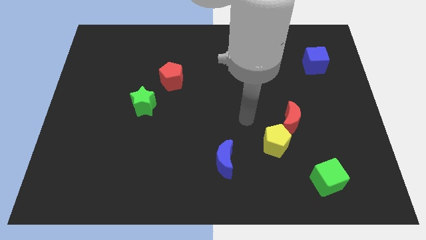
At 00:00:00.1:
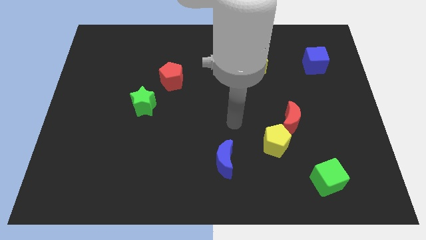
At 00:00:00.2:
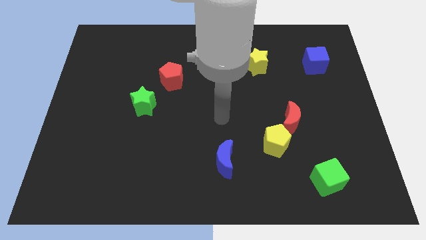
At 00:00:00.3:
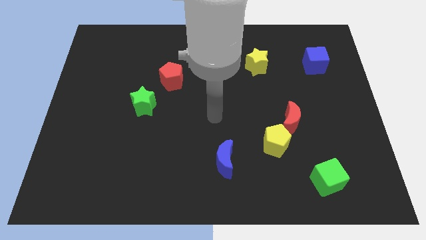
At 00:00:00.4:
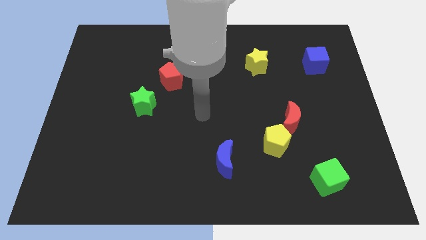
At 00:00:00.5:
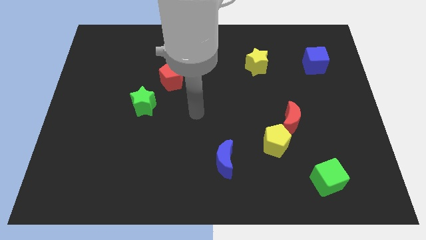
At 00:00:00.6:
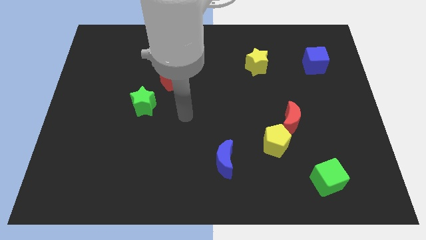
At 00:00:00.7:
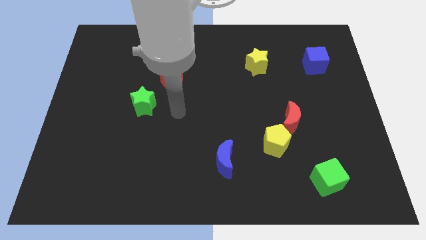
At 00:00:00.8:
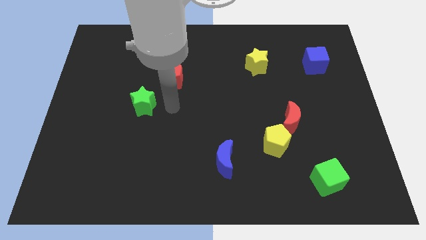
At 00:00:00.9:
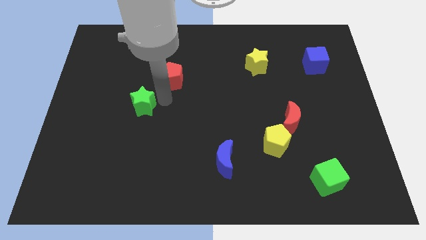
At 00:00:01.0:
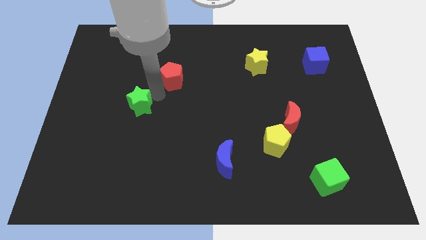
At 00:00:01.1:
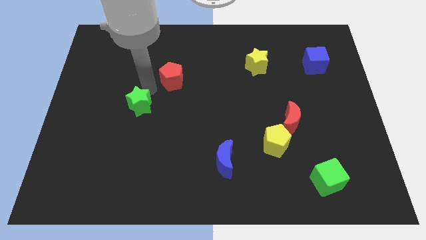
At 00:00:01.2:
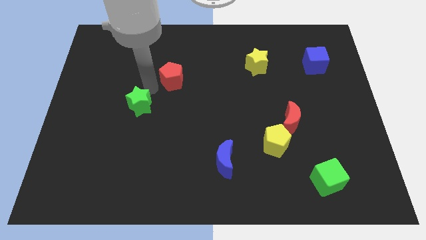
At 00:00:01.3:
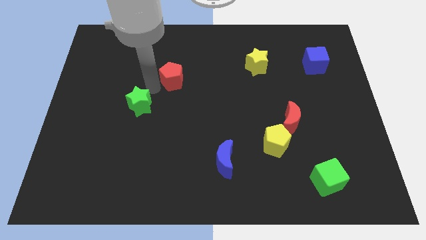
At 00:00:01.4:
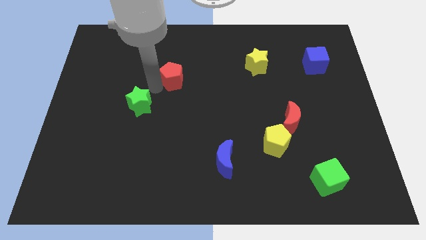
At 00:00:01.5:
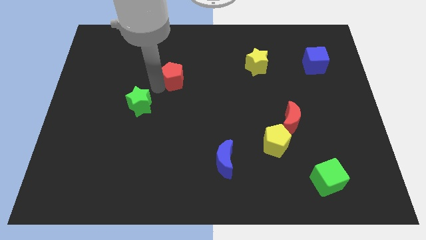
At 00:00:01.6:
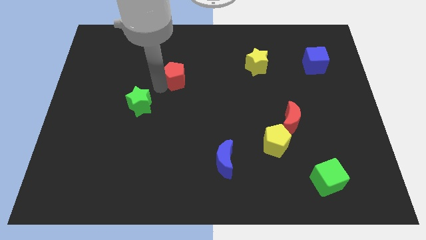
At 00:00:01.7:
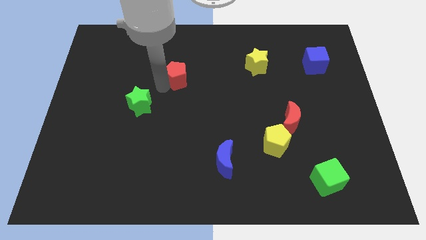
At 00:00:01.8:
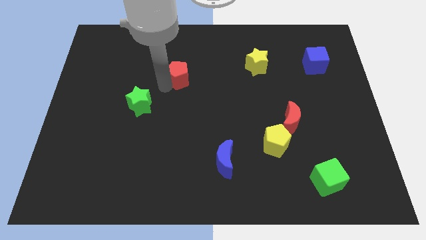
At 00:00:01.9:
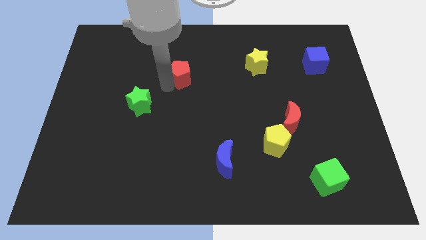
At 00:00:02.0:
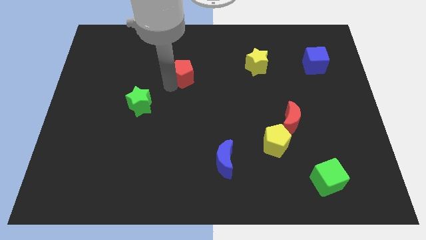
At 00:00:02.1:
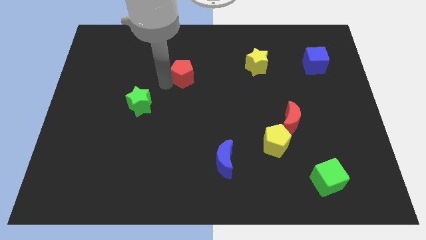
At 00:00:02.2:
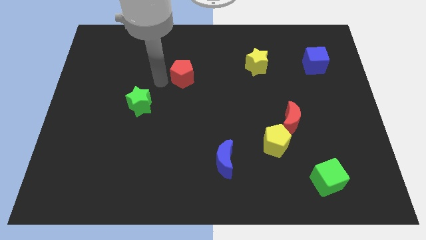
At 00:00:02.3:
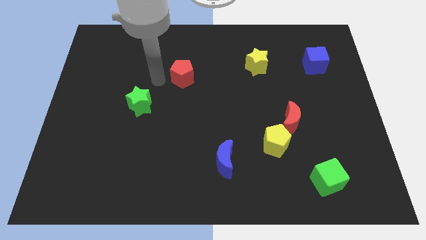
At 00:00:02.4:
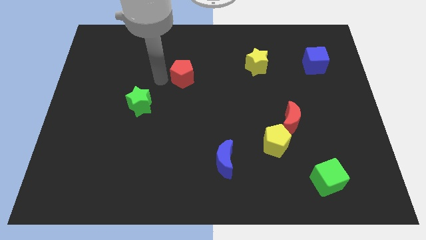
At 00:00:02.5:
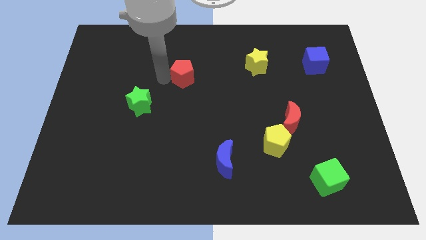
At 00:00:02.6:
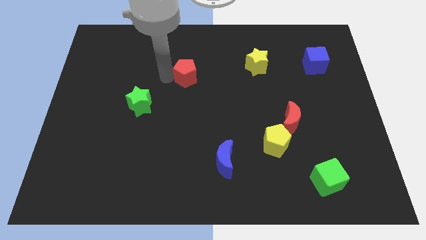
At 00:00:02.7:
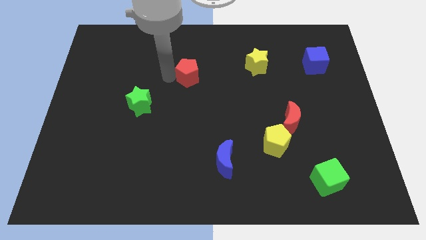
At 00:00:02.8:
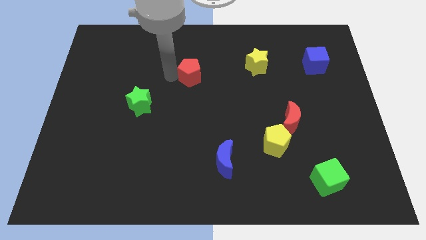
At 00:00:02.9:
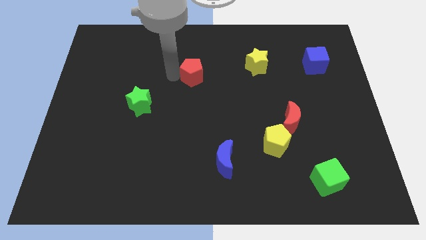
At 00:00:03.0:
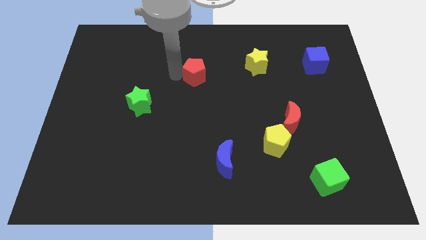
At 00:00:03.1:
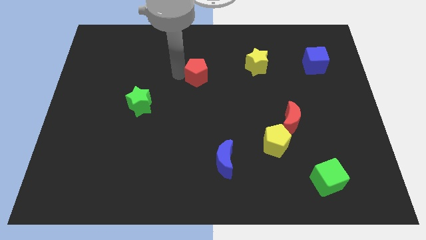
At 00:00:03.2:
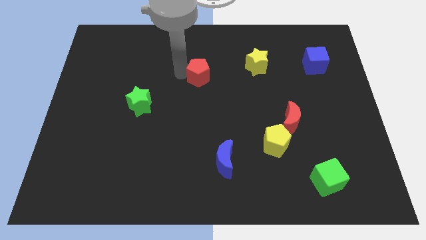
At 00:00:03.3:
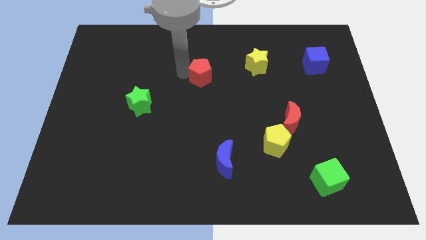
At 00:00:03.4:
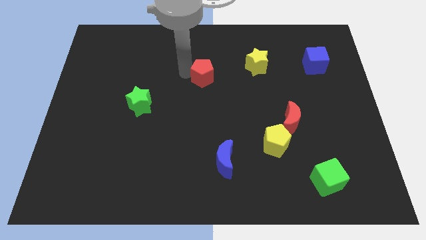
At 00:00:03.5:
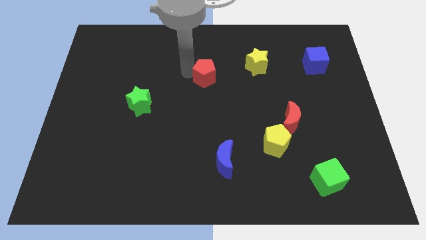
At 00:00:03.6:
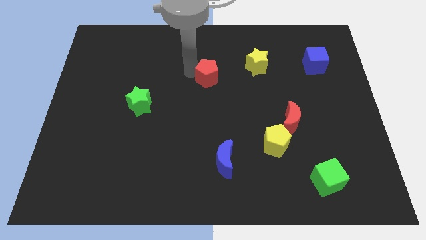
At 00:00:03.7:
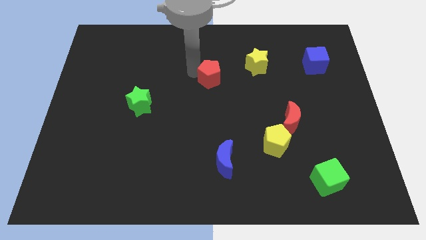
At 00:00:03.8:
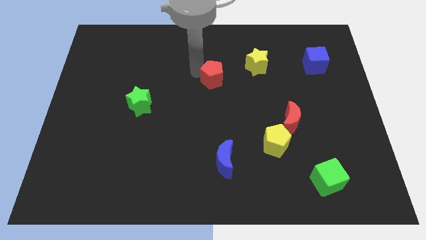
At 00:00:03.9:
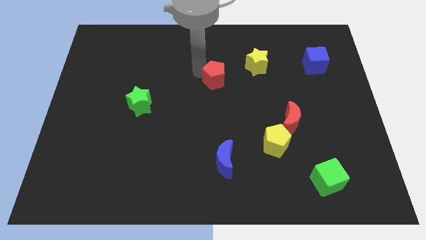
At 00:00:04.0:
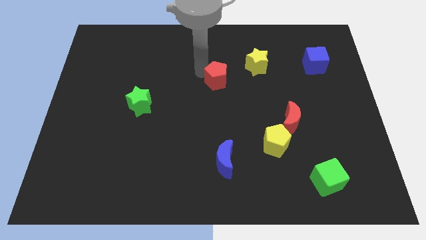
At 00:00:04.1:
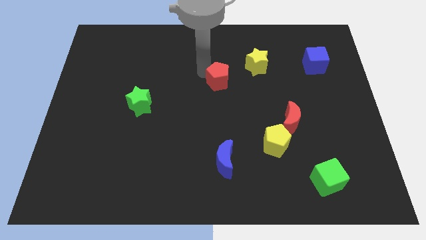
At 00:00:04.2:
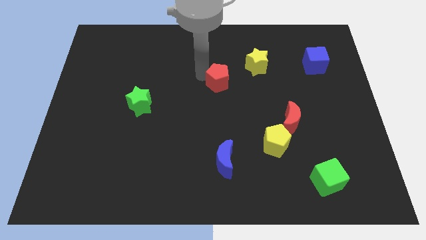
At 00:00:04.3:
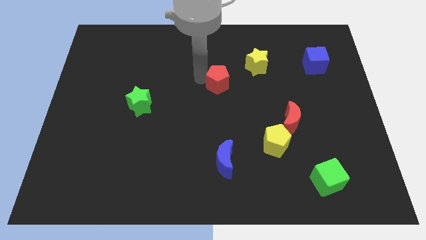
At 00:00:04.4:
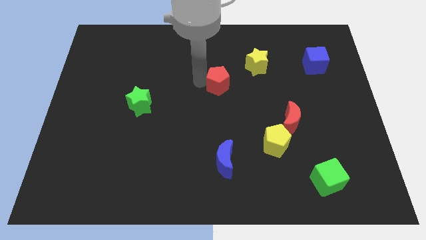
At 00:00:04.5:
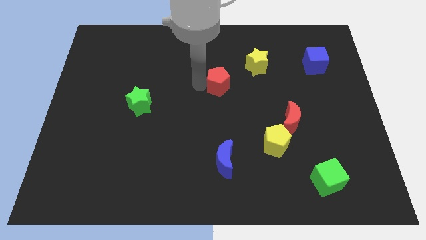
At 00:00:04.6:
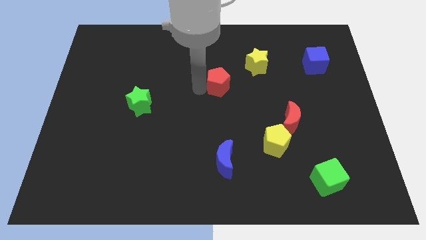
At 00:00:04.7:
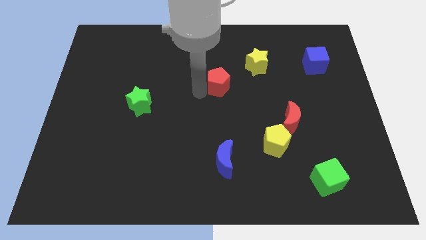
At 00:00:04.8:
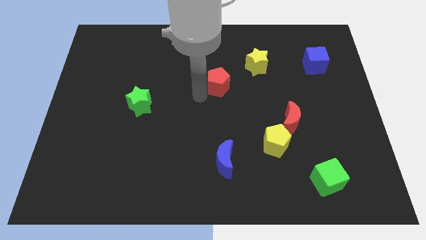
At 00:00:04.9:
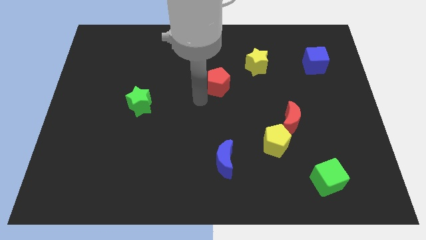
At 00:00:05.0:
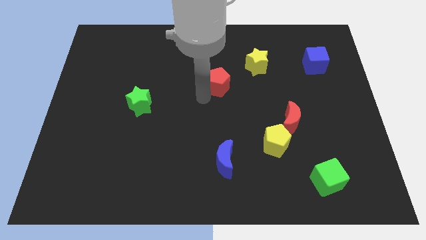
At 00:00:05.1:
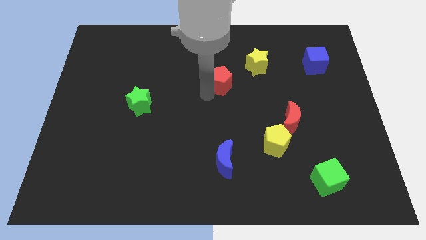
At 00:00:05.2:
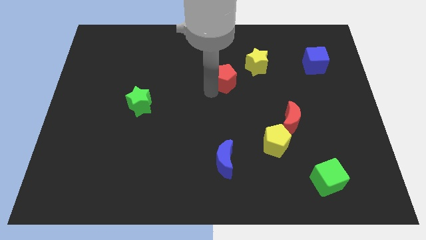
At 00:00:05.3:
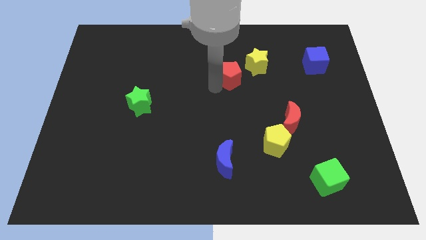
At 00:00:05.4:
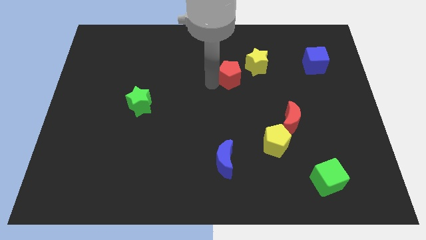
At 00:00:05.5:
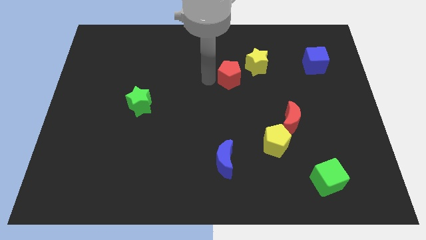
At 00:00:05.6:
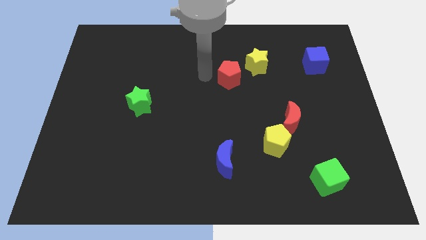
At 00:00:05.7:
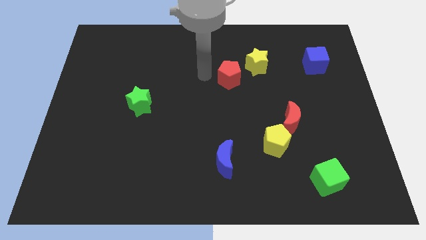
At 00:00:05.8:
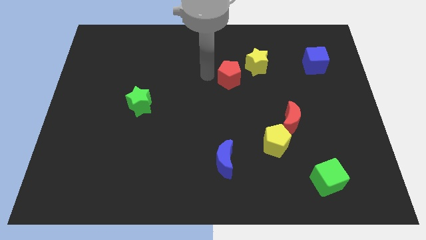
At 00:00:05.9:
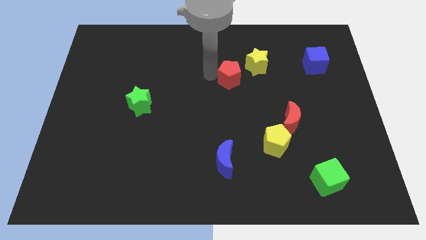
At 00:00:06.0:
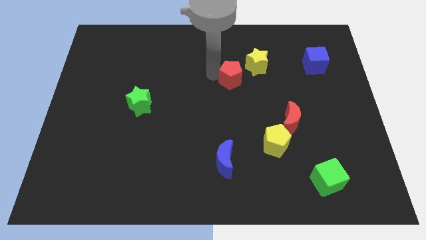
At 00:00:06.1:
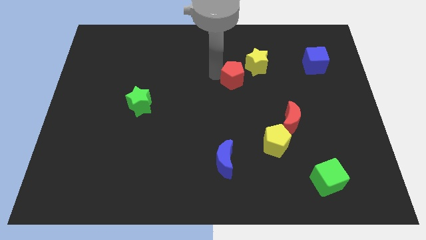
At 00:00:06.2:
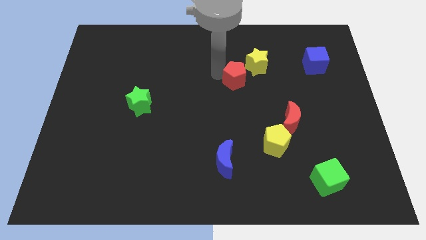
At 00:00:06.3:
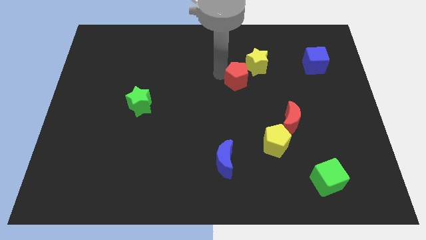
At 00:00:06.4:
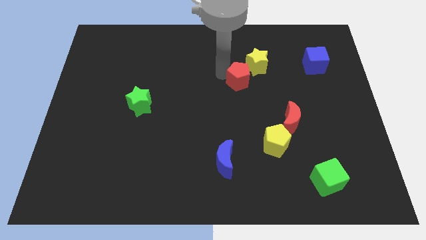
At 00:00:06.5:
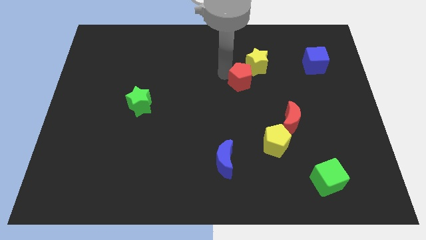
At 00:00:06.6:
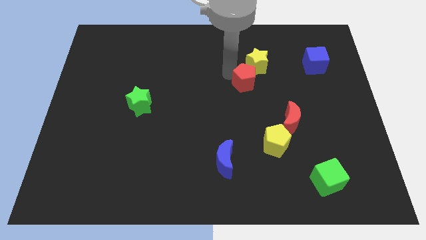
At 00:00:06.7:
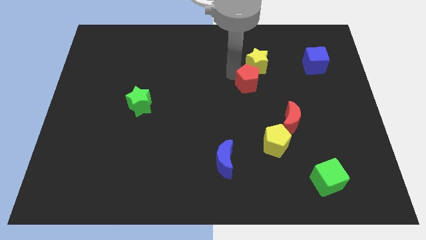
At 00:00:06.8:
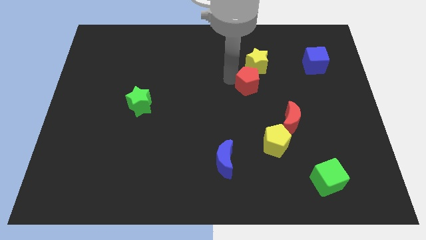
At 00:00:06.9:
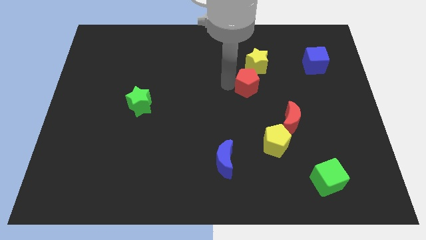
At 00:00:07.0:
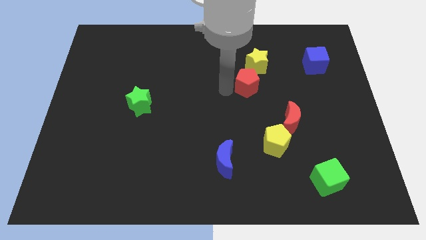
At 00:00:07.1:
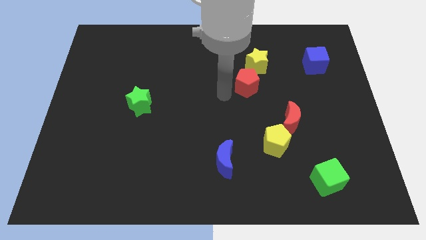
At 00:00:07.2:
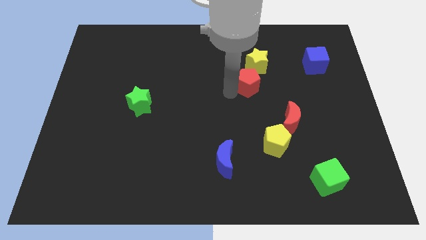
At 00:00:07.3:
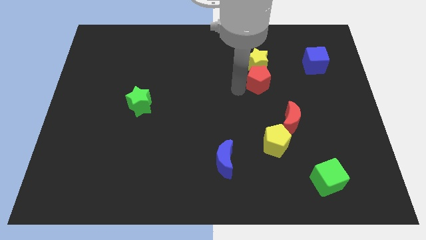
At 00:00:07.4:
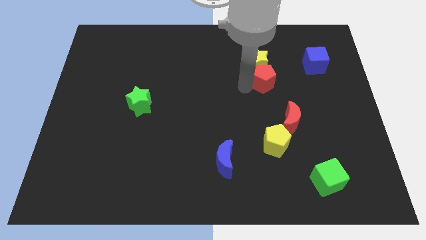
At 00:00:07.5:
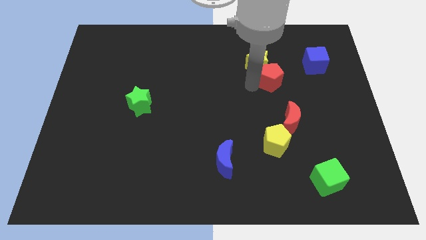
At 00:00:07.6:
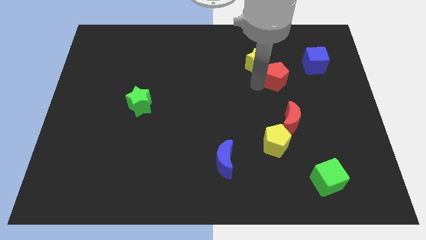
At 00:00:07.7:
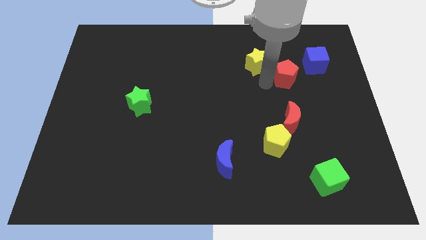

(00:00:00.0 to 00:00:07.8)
push the red pentagon to the right of the yellow star
